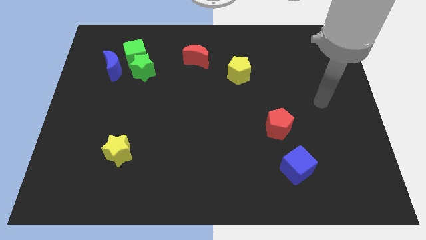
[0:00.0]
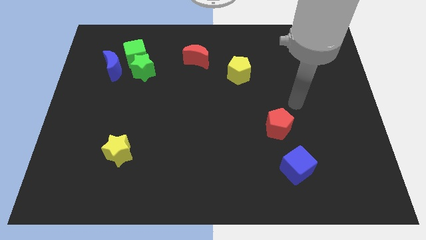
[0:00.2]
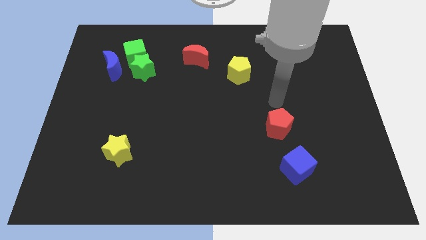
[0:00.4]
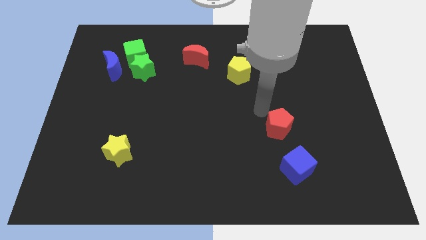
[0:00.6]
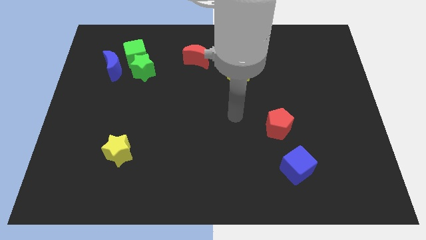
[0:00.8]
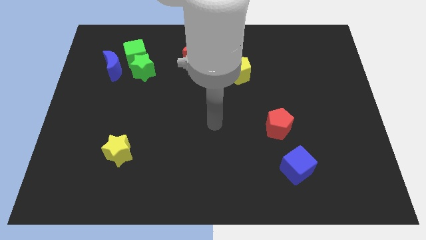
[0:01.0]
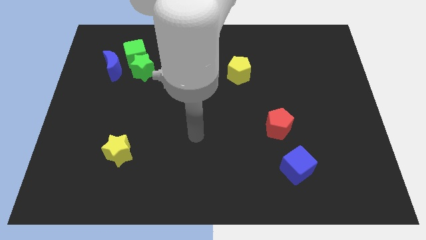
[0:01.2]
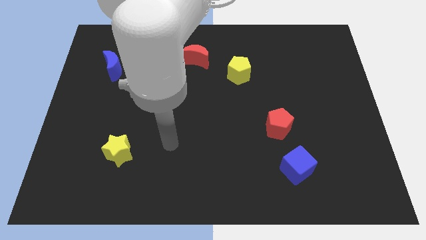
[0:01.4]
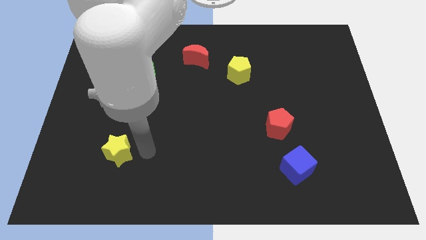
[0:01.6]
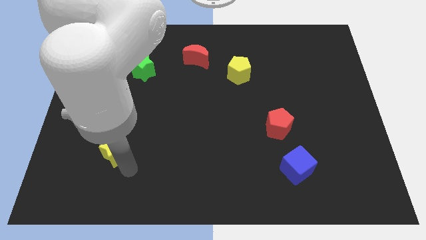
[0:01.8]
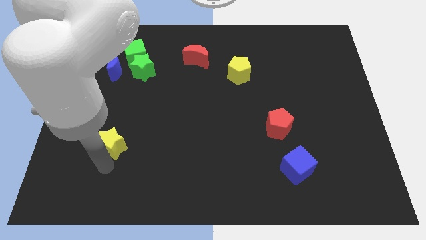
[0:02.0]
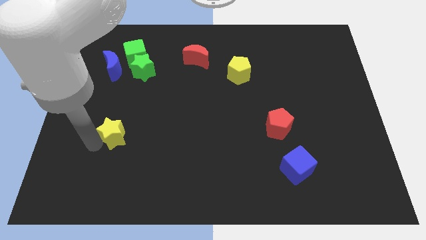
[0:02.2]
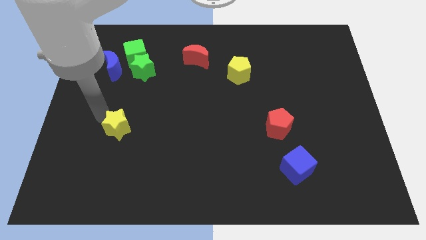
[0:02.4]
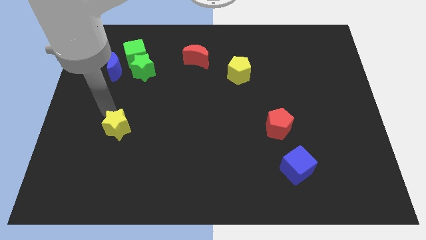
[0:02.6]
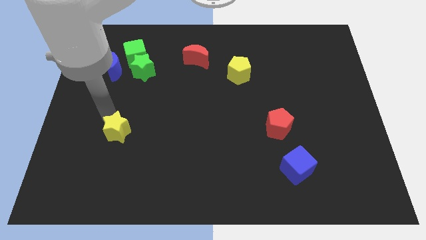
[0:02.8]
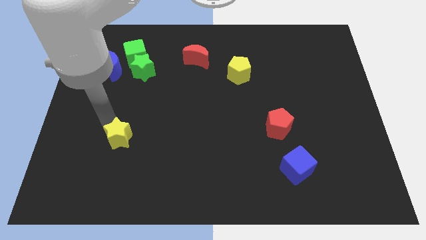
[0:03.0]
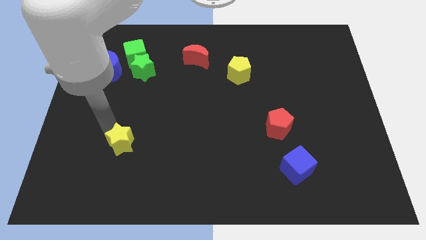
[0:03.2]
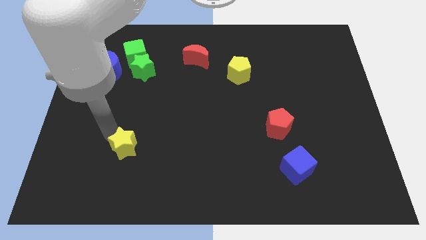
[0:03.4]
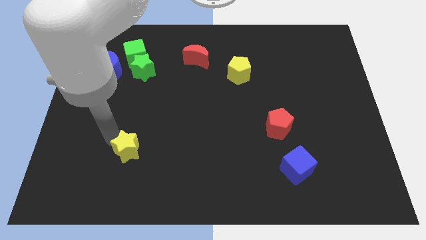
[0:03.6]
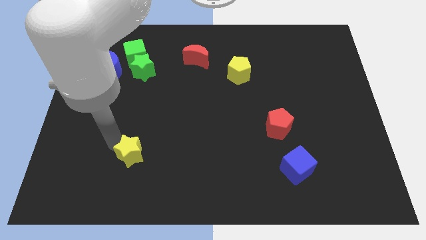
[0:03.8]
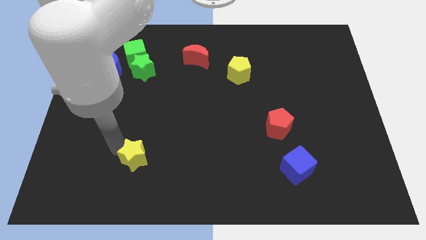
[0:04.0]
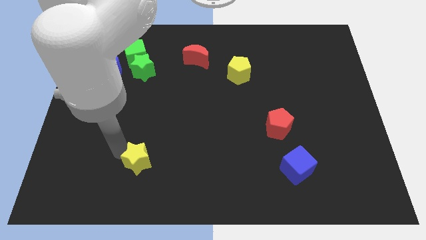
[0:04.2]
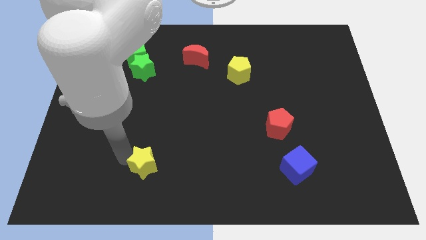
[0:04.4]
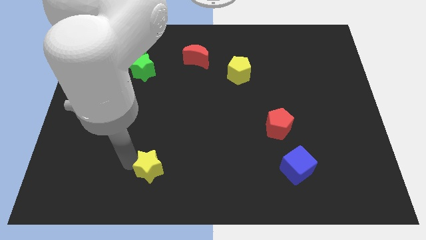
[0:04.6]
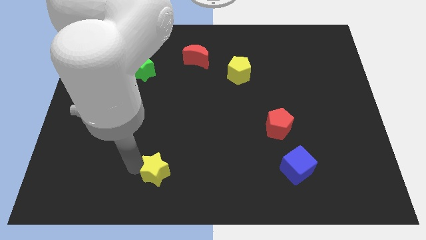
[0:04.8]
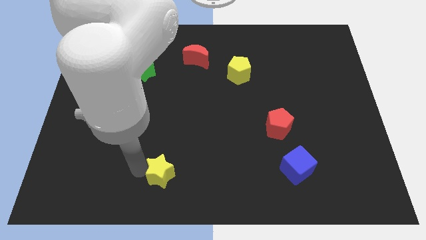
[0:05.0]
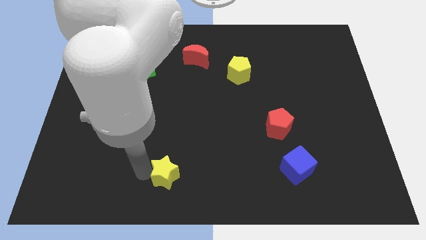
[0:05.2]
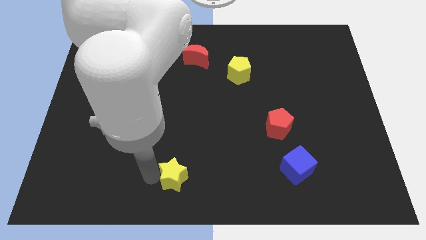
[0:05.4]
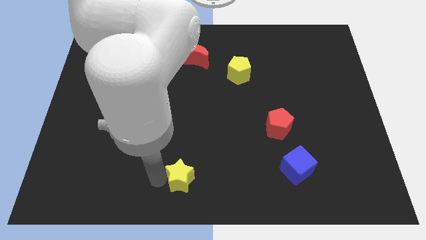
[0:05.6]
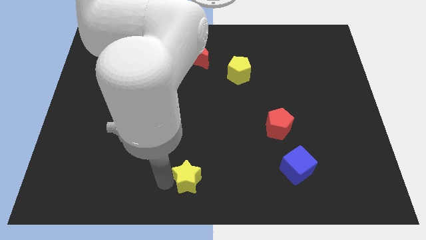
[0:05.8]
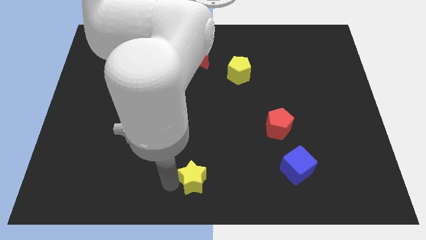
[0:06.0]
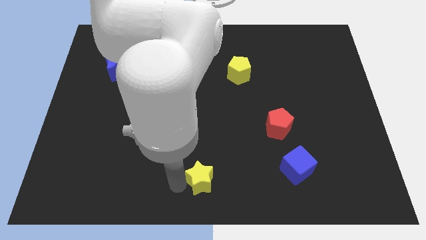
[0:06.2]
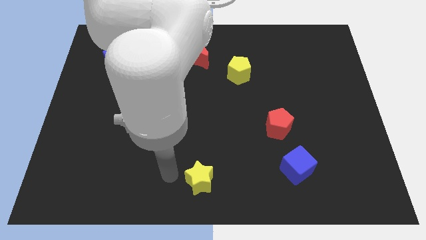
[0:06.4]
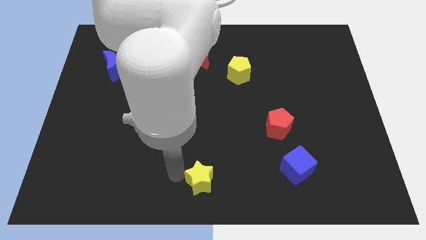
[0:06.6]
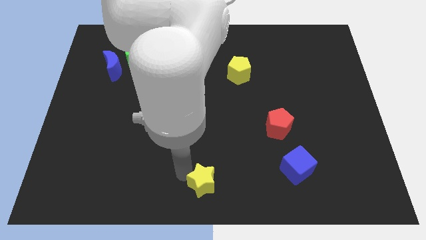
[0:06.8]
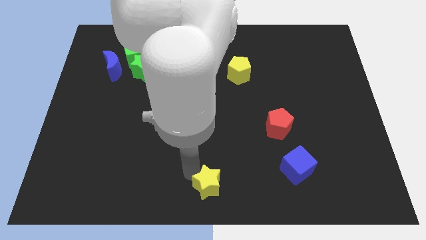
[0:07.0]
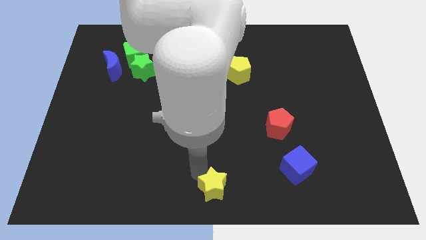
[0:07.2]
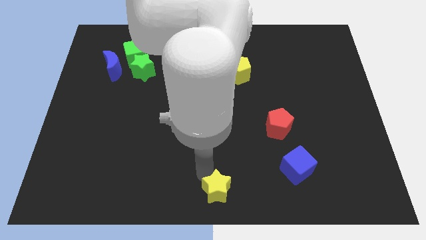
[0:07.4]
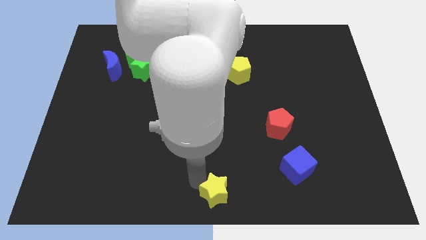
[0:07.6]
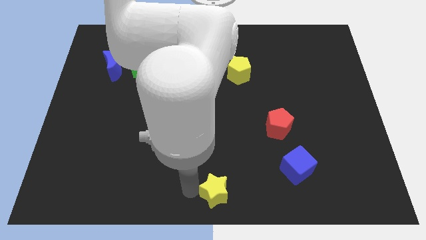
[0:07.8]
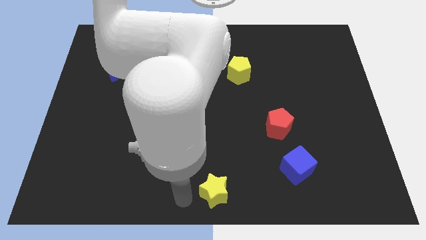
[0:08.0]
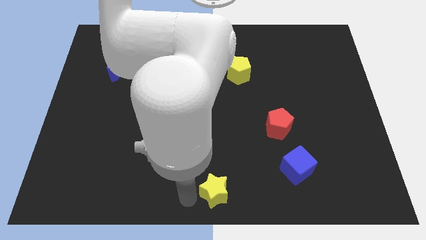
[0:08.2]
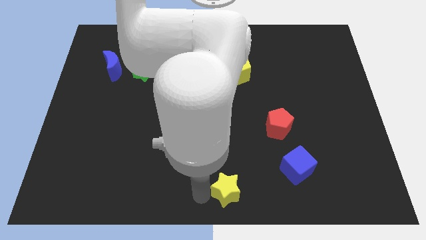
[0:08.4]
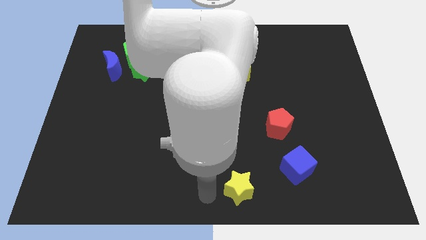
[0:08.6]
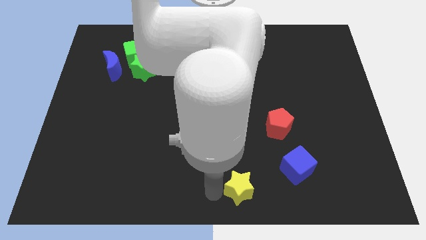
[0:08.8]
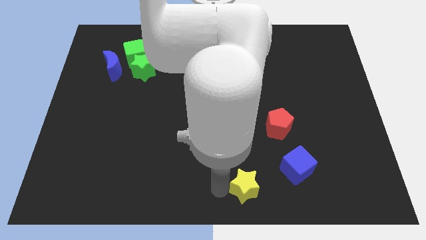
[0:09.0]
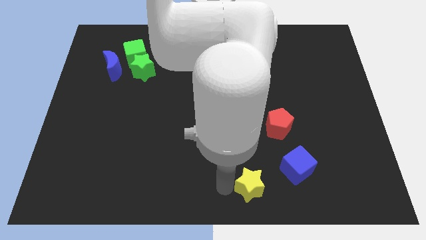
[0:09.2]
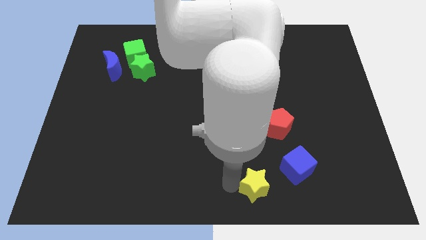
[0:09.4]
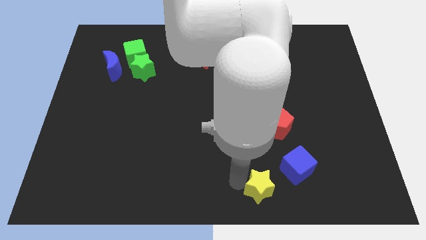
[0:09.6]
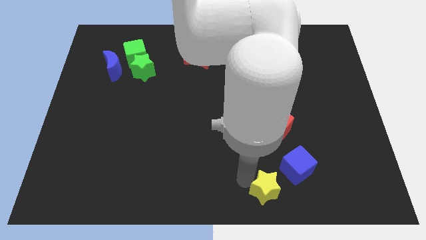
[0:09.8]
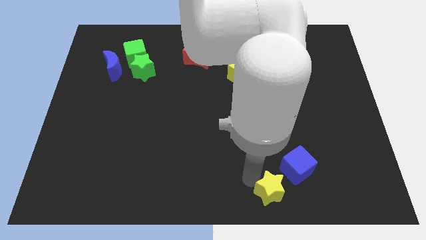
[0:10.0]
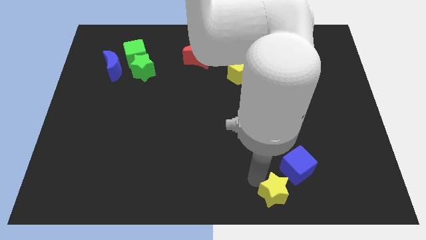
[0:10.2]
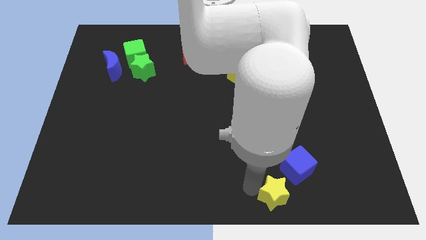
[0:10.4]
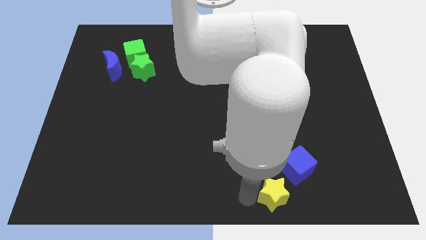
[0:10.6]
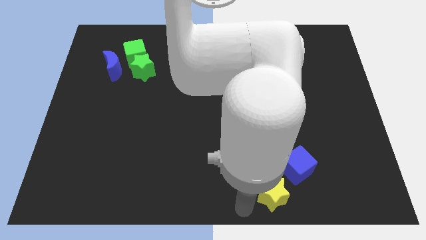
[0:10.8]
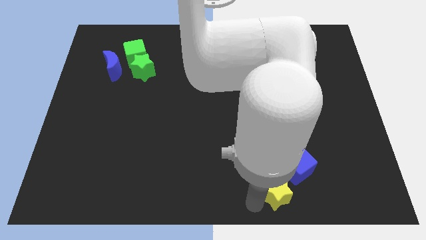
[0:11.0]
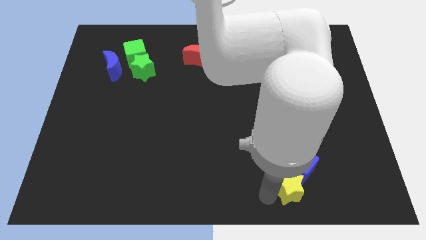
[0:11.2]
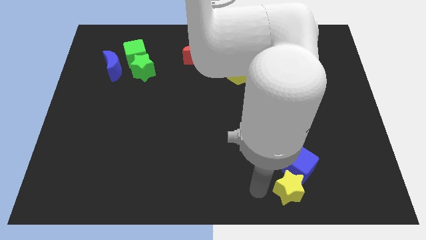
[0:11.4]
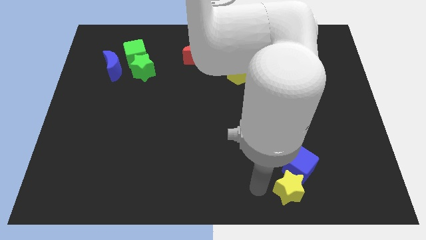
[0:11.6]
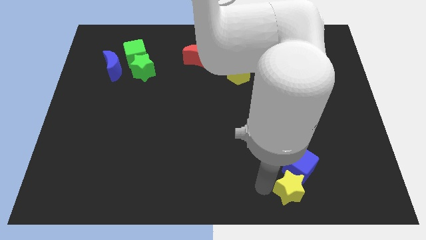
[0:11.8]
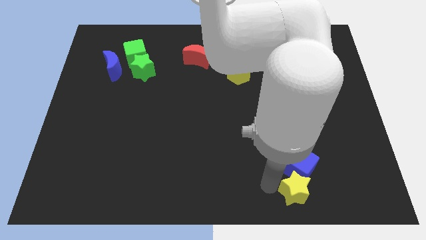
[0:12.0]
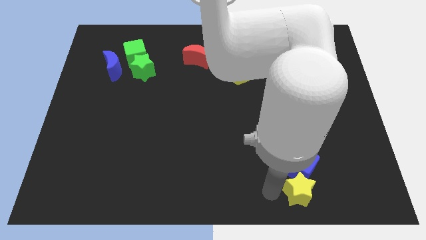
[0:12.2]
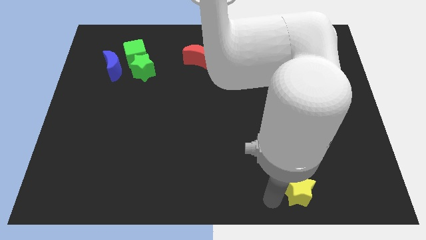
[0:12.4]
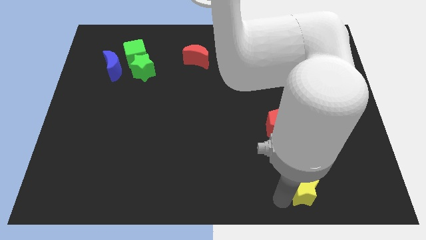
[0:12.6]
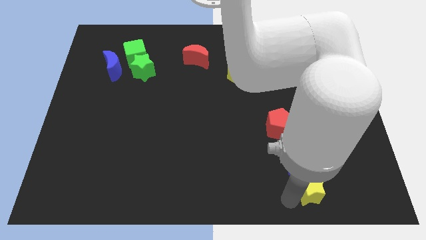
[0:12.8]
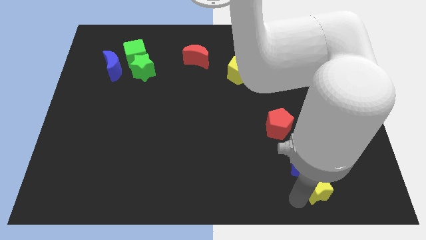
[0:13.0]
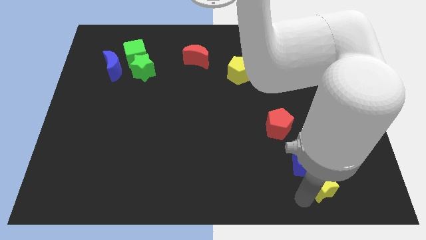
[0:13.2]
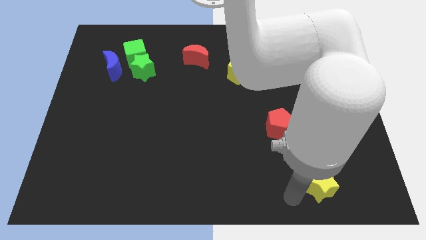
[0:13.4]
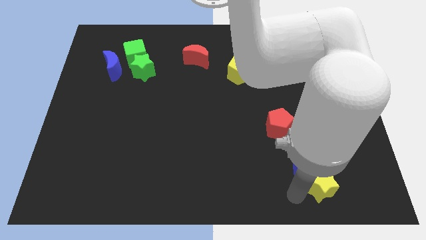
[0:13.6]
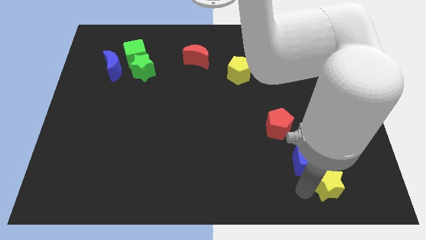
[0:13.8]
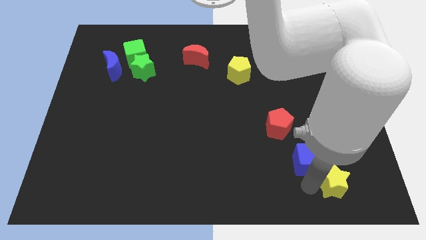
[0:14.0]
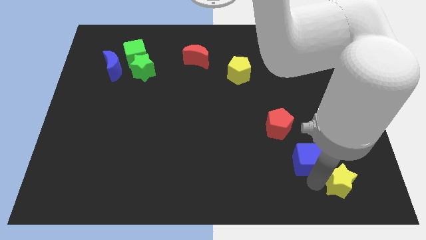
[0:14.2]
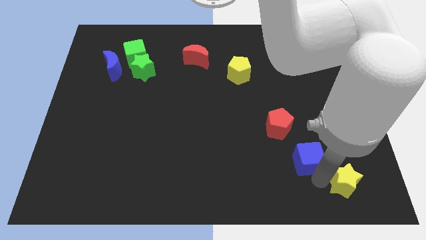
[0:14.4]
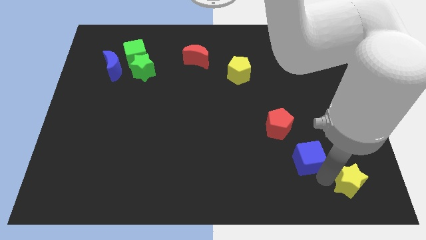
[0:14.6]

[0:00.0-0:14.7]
push the yellow star to the bottom right corner
